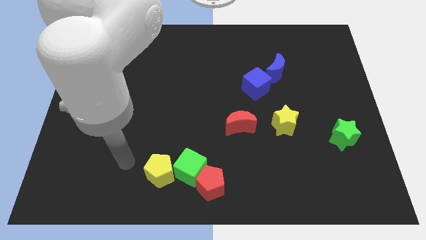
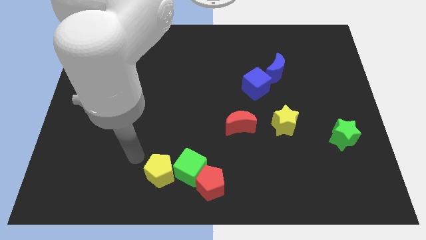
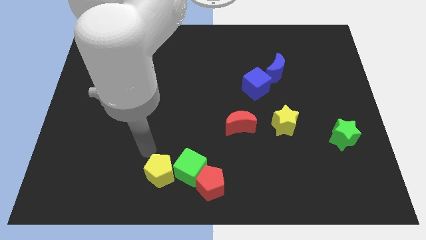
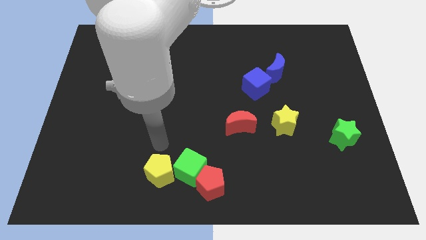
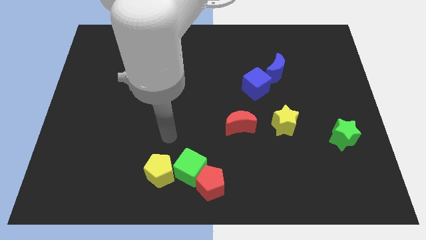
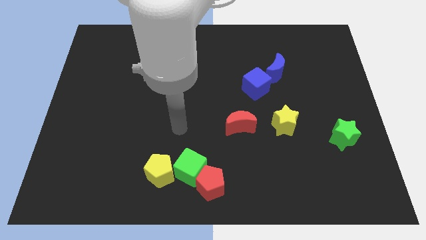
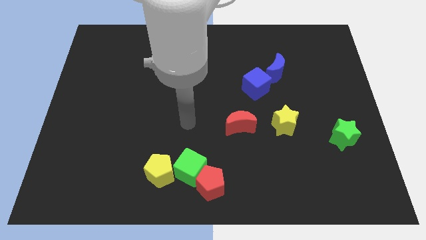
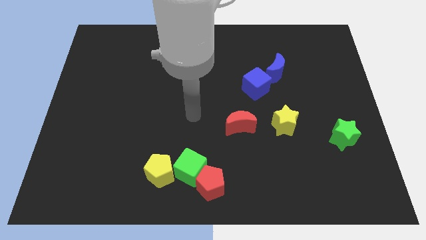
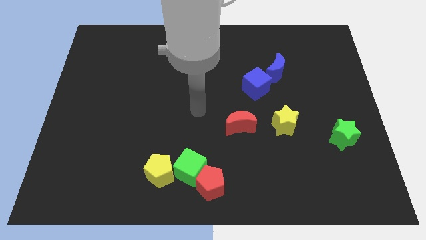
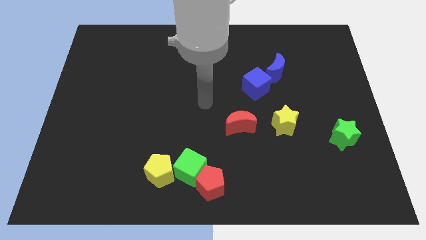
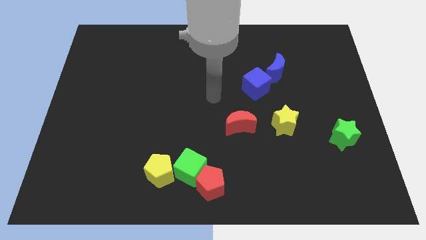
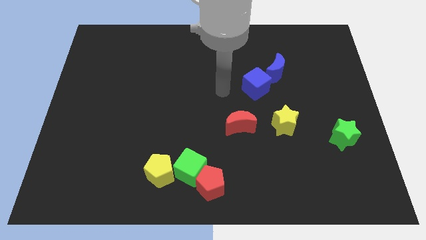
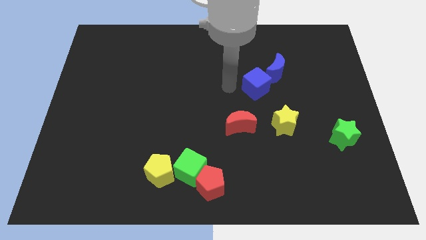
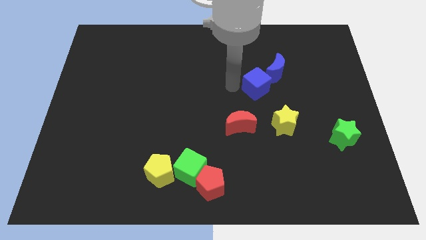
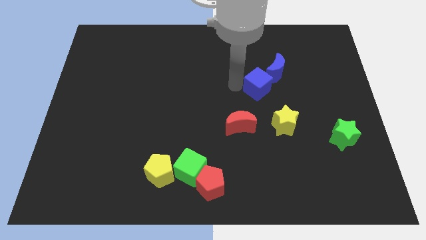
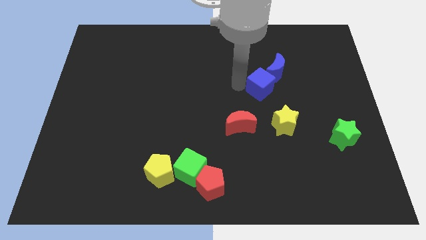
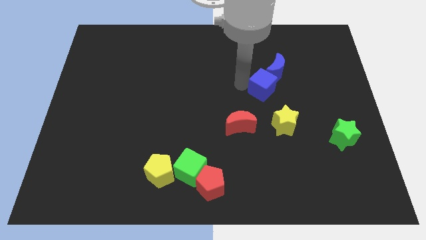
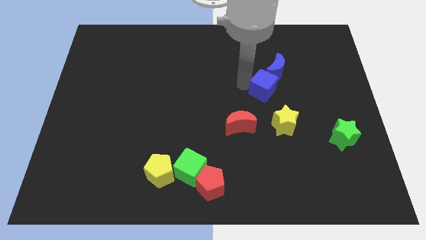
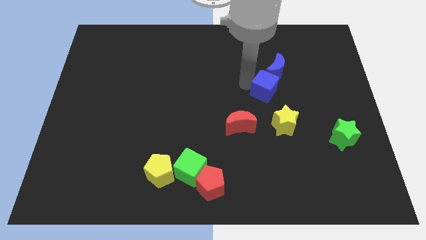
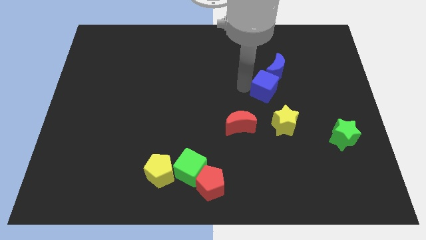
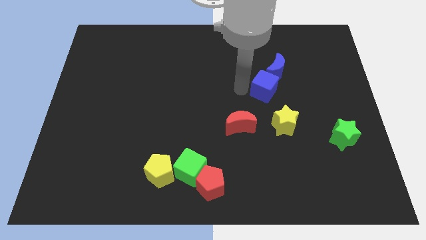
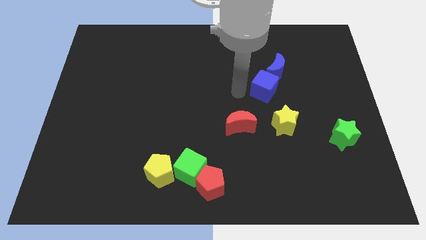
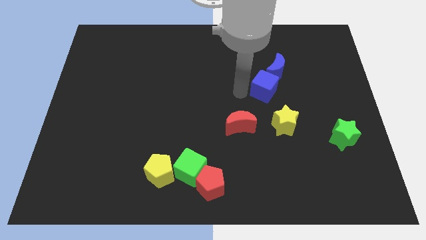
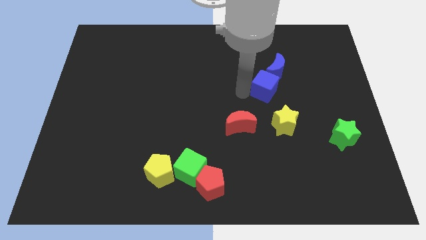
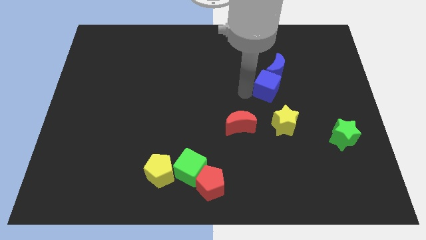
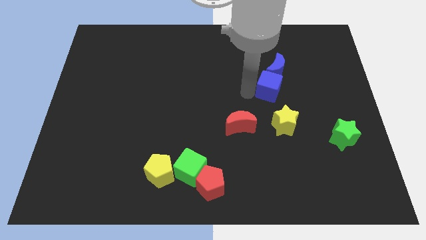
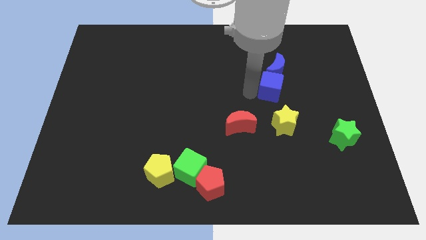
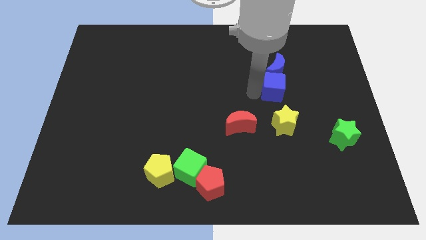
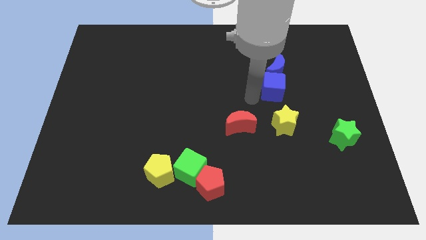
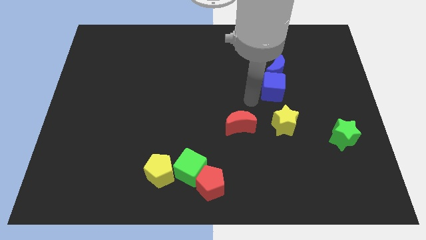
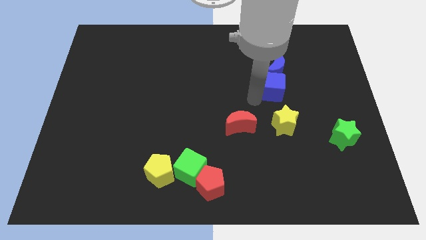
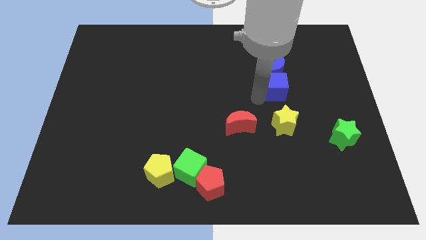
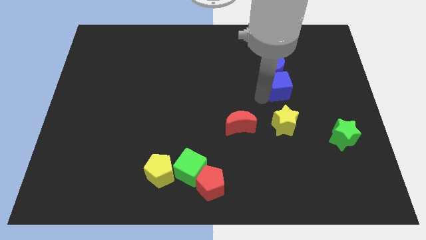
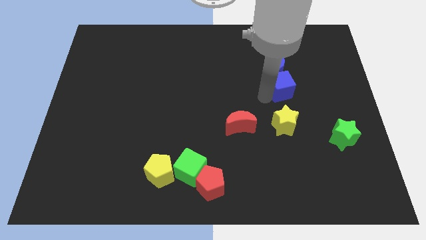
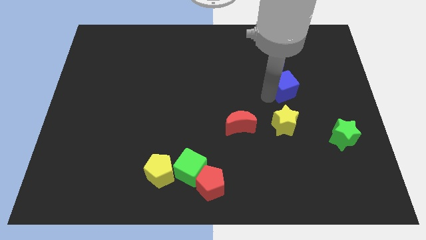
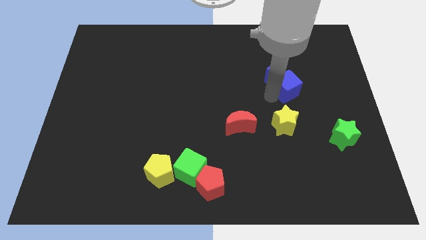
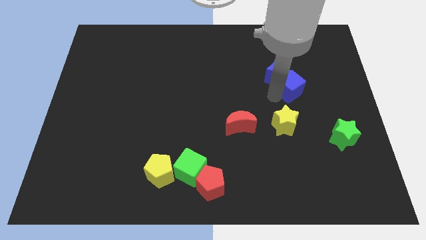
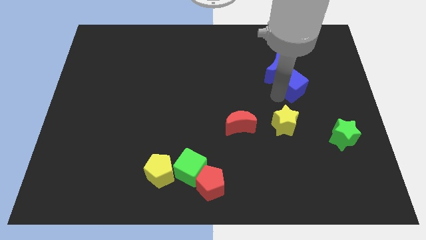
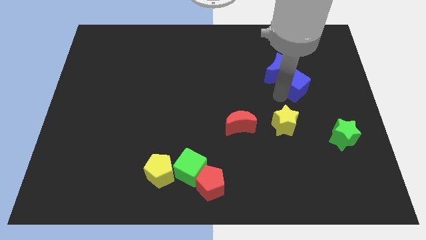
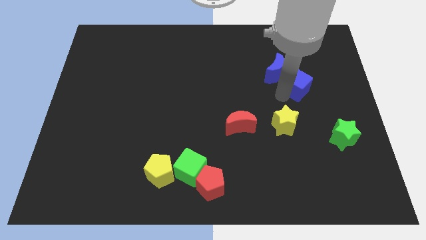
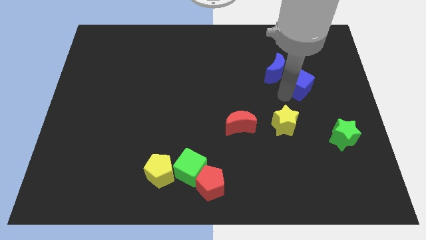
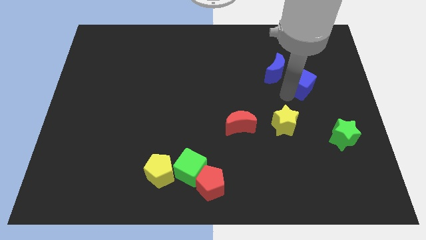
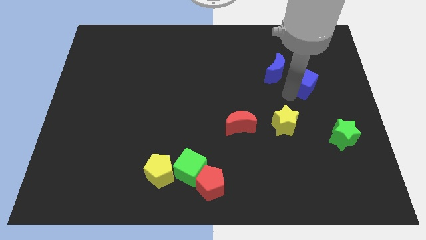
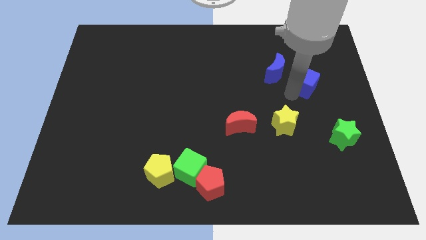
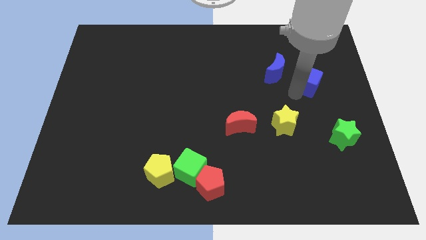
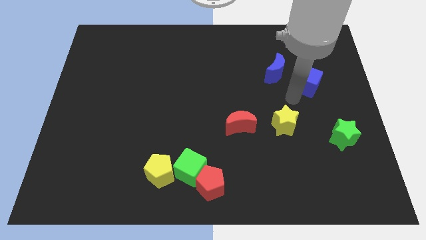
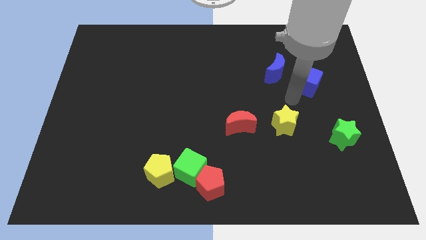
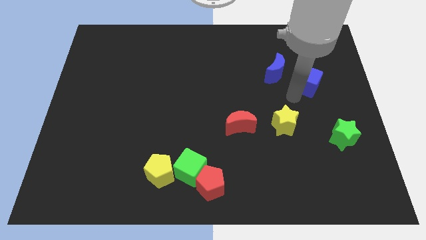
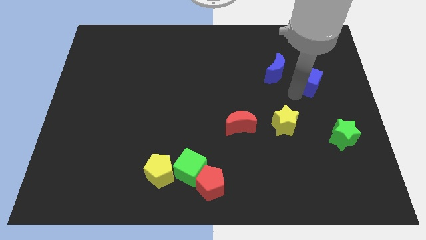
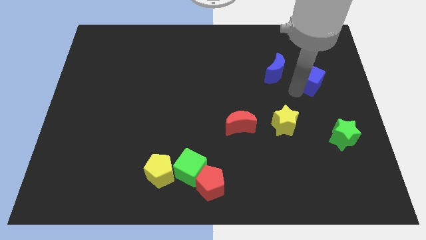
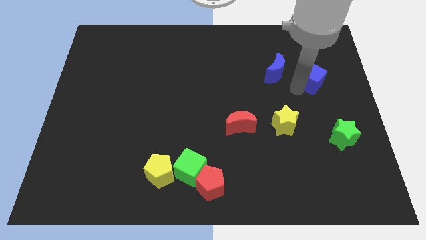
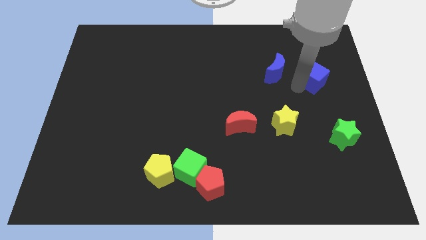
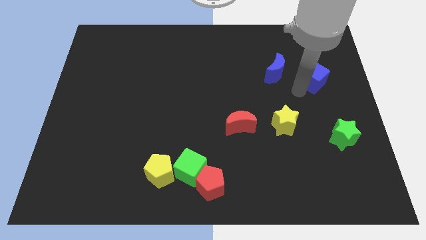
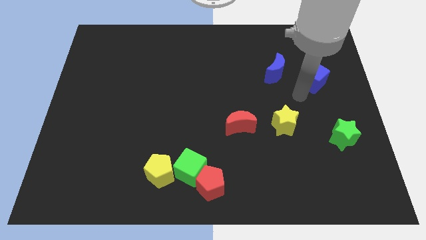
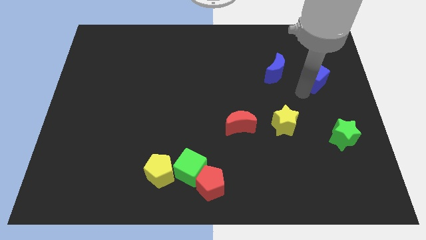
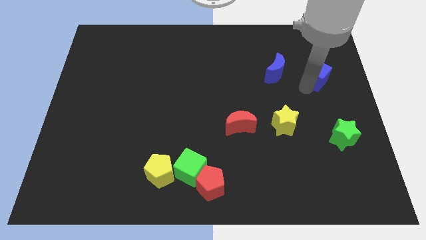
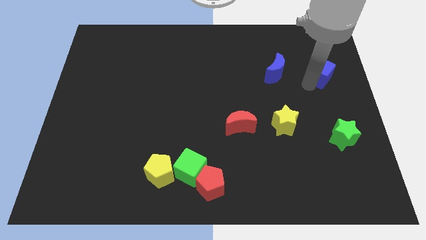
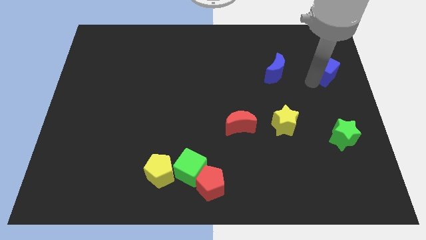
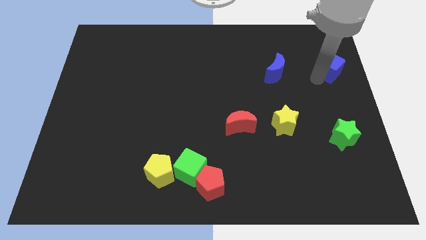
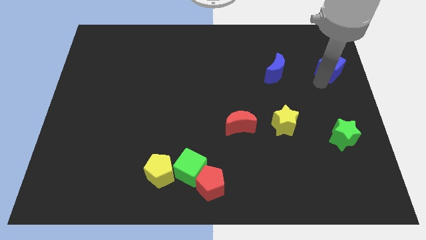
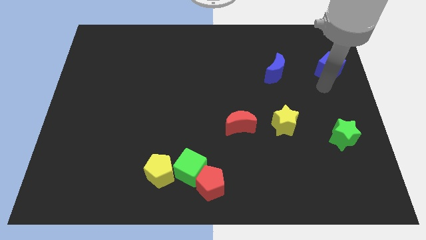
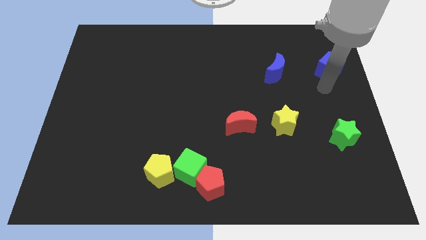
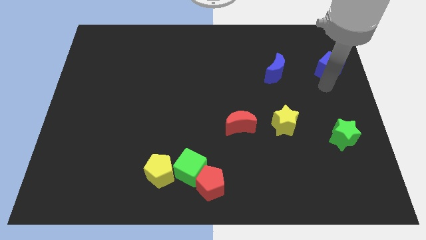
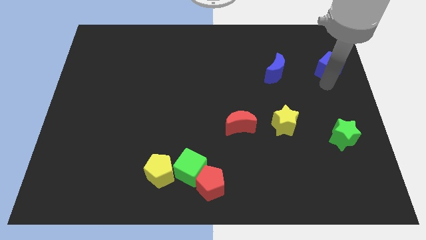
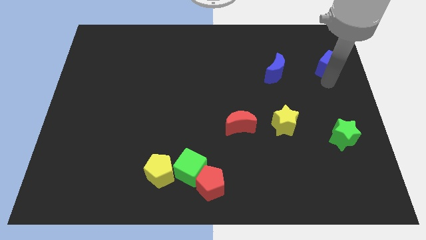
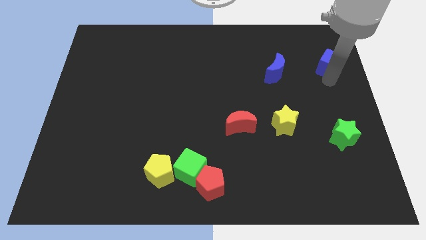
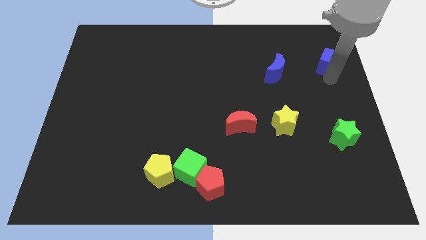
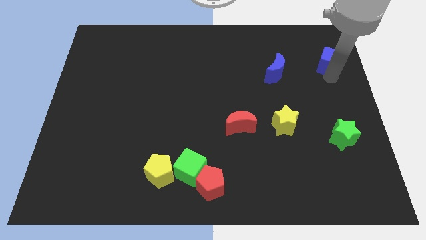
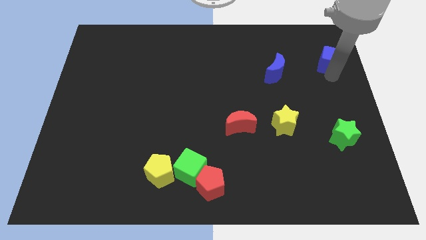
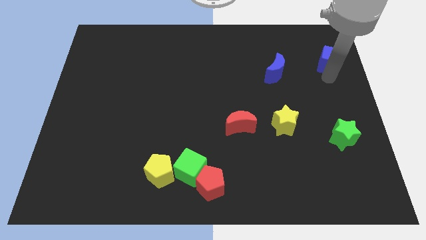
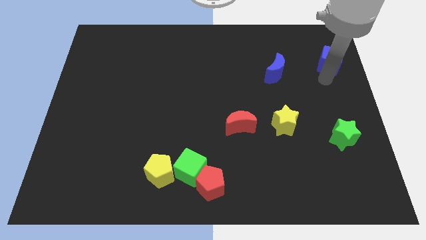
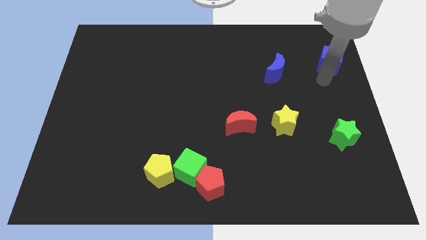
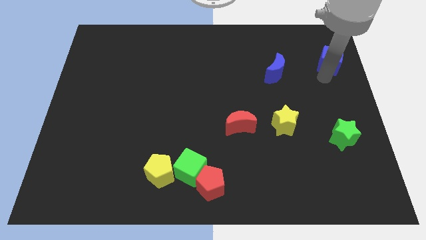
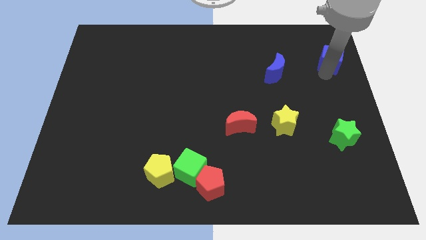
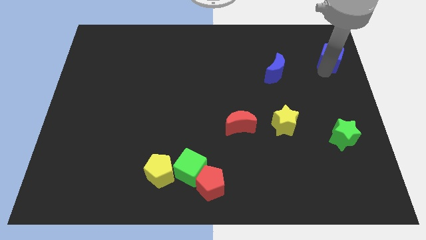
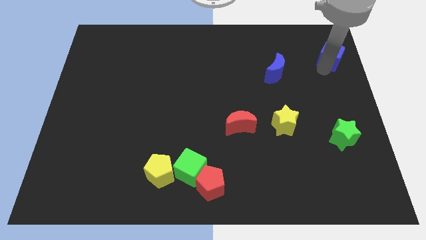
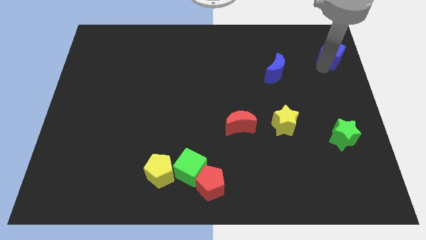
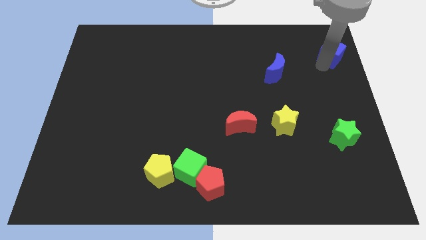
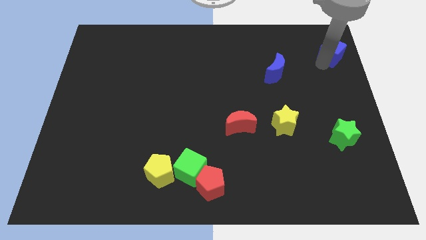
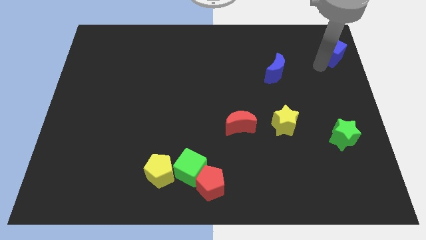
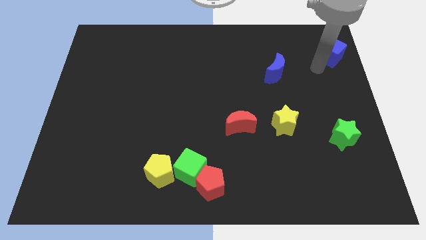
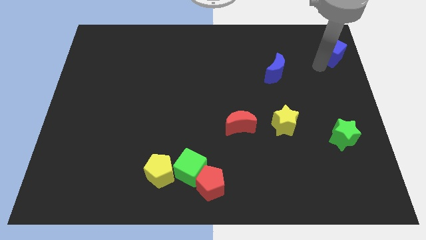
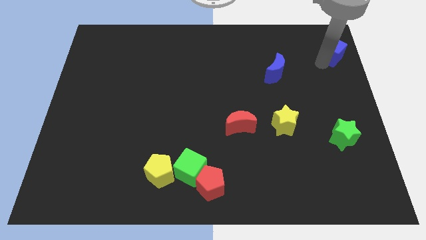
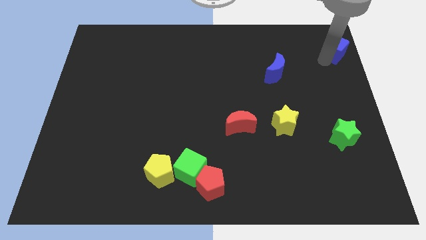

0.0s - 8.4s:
push the blue cube to the top right
